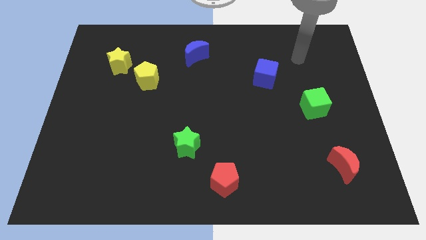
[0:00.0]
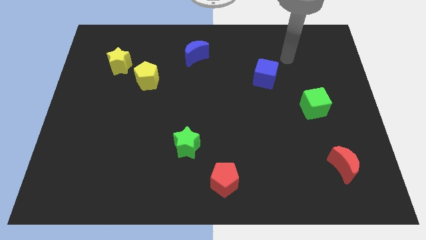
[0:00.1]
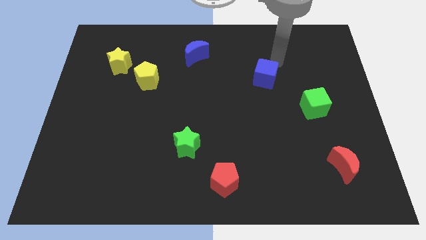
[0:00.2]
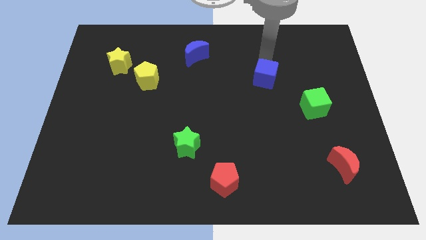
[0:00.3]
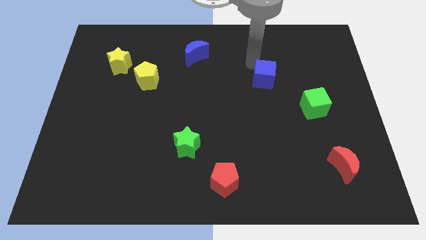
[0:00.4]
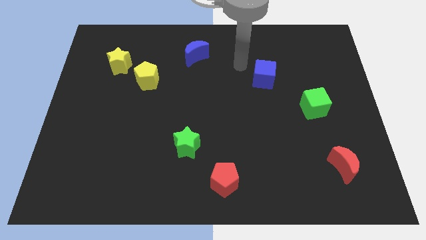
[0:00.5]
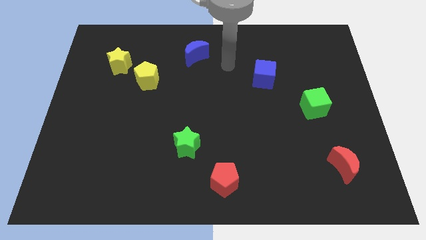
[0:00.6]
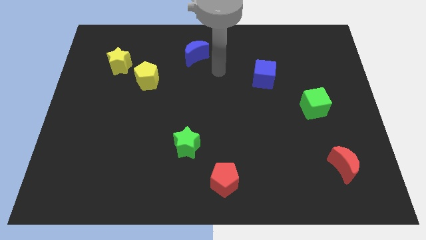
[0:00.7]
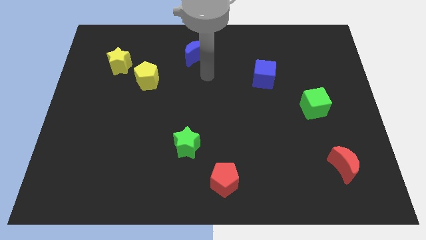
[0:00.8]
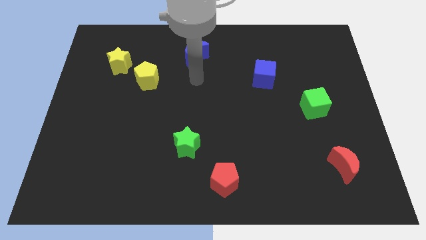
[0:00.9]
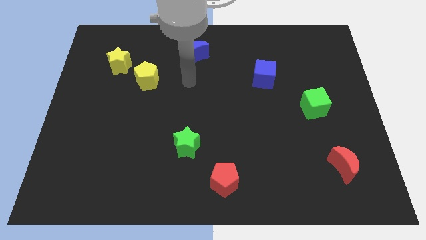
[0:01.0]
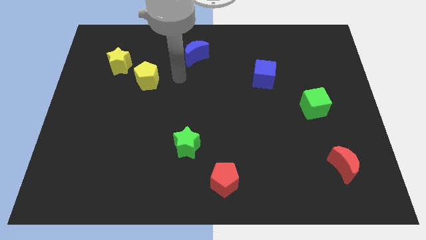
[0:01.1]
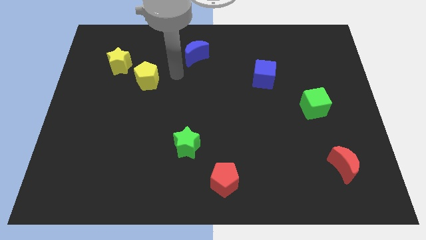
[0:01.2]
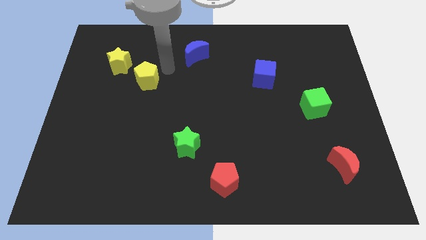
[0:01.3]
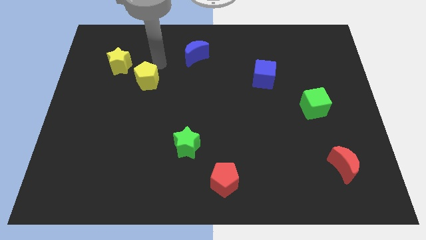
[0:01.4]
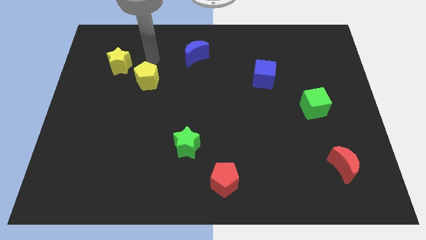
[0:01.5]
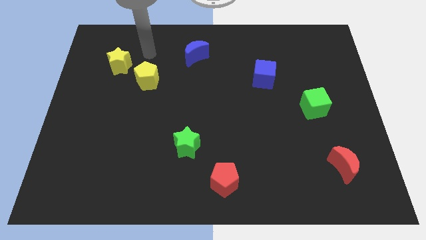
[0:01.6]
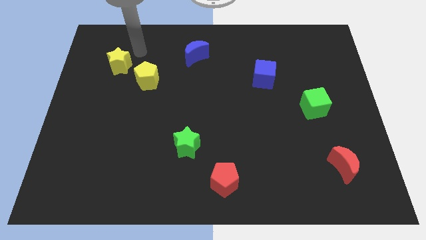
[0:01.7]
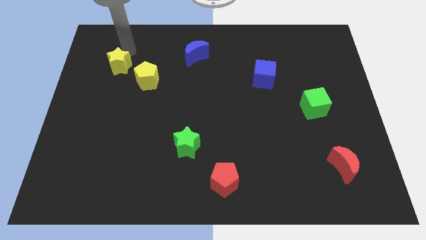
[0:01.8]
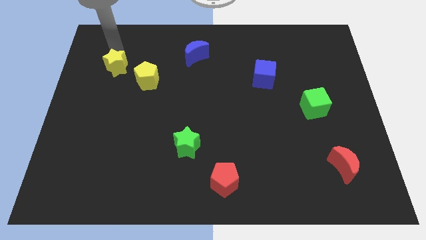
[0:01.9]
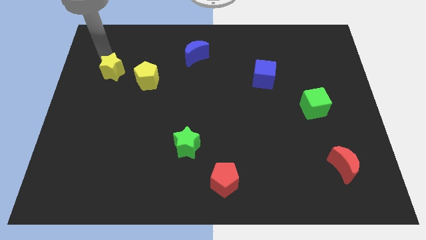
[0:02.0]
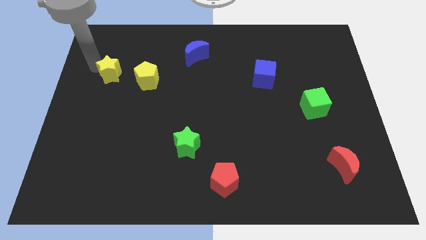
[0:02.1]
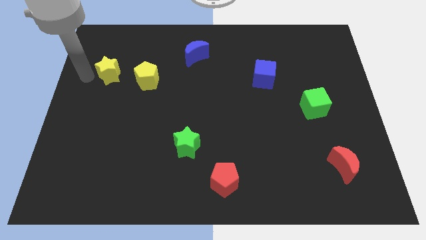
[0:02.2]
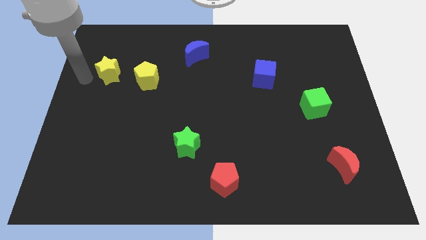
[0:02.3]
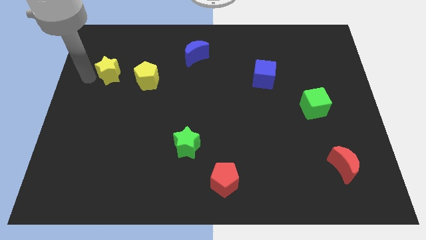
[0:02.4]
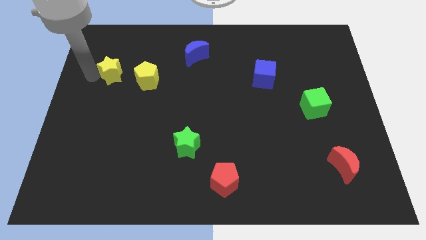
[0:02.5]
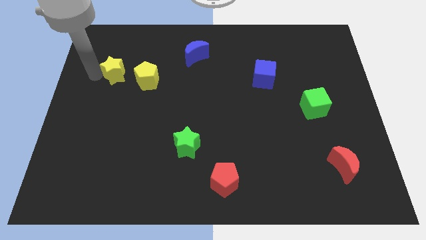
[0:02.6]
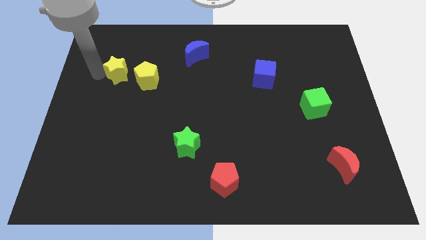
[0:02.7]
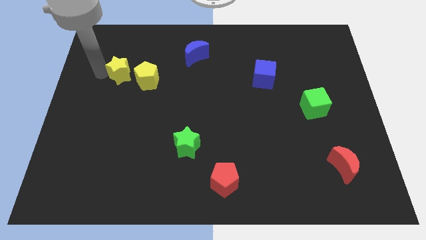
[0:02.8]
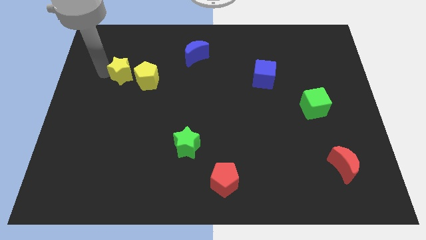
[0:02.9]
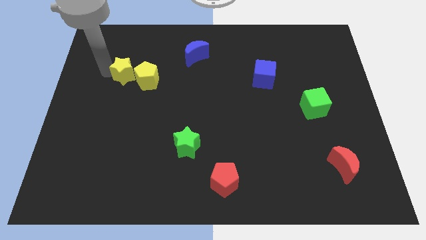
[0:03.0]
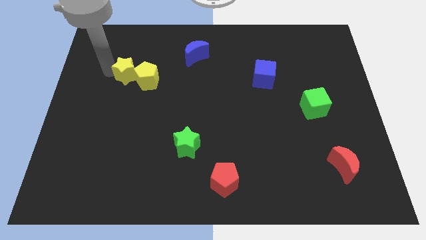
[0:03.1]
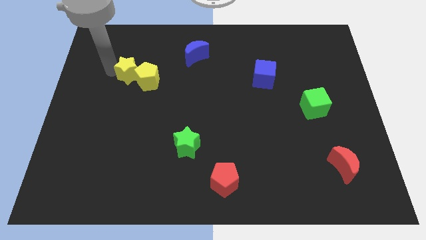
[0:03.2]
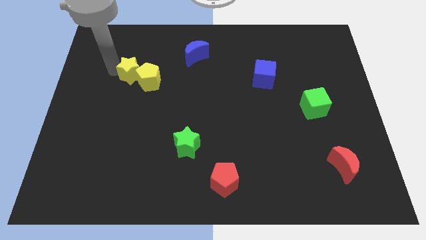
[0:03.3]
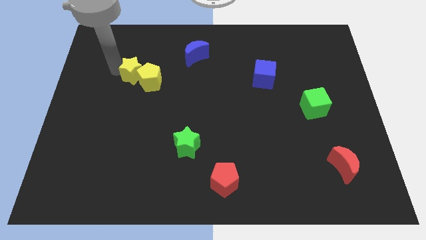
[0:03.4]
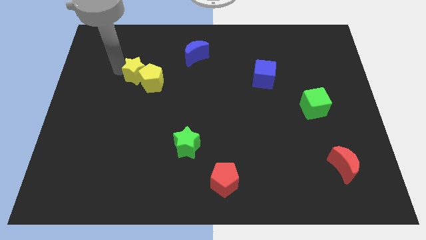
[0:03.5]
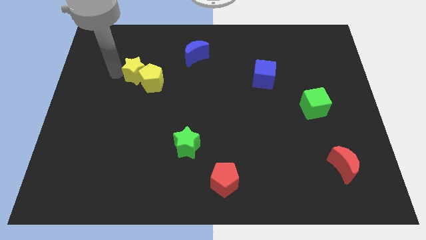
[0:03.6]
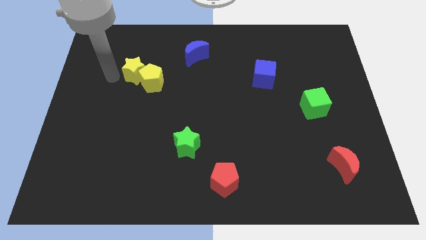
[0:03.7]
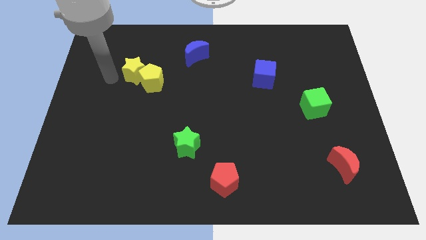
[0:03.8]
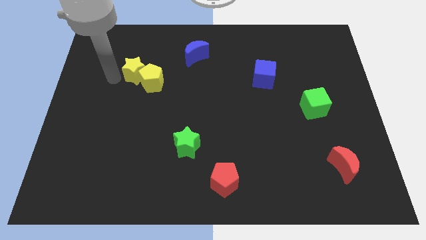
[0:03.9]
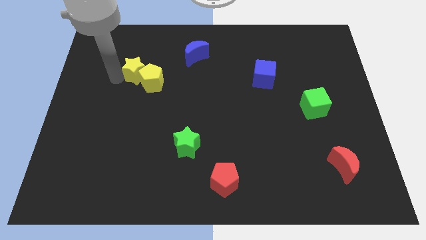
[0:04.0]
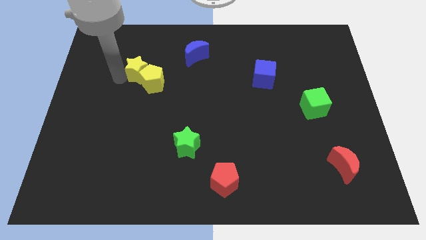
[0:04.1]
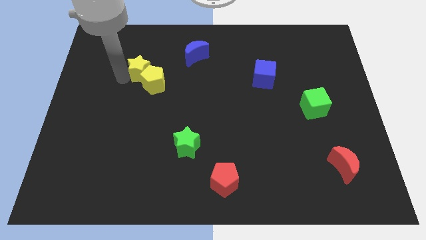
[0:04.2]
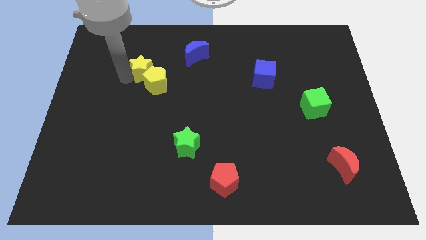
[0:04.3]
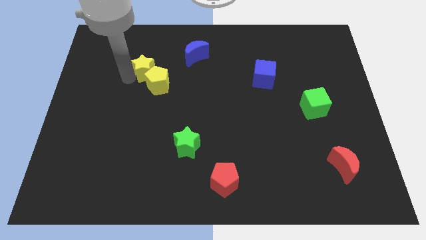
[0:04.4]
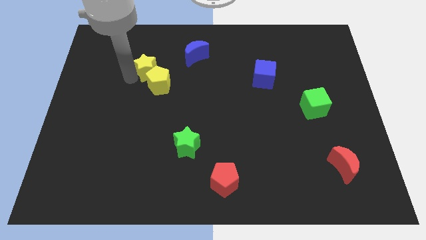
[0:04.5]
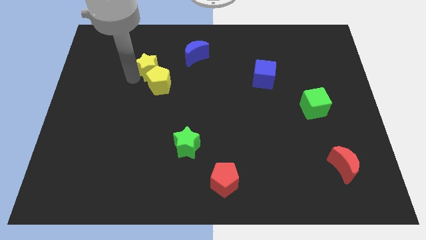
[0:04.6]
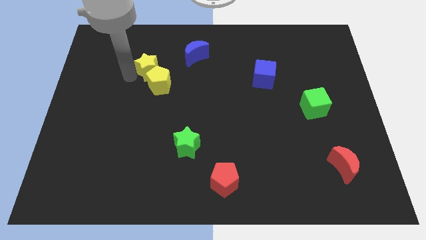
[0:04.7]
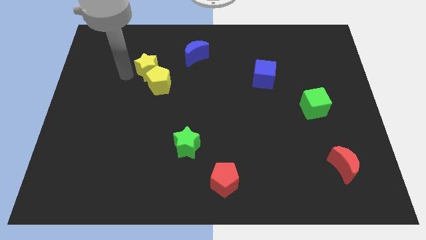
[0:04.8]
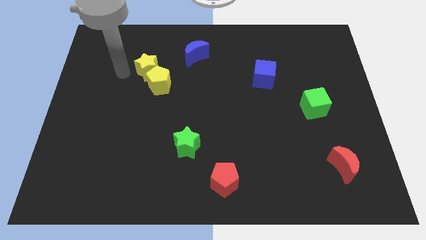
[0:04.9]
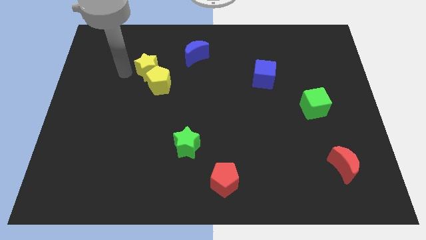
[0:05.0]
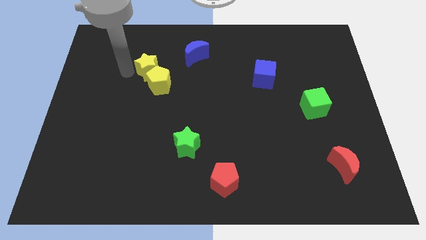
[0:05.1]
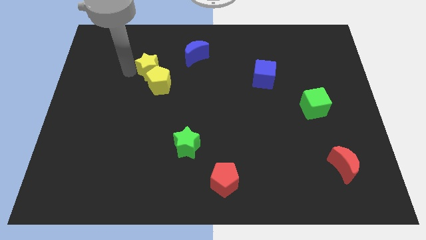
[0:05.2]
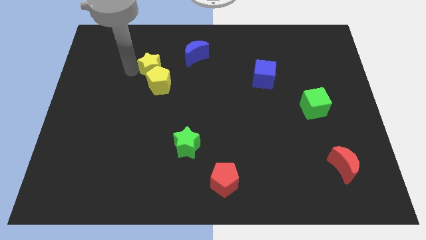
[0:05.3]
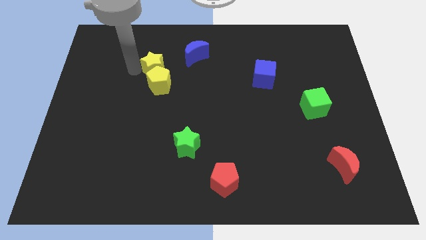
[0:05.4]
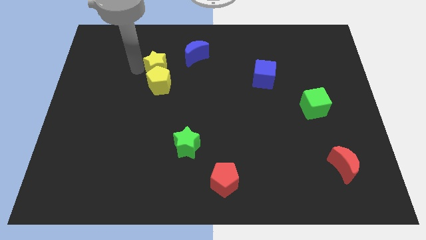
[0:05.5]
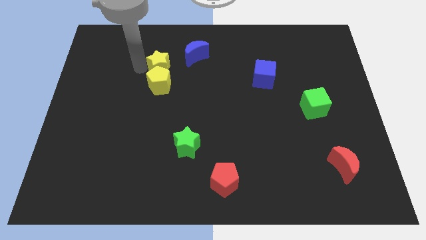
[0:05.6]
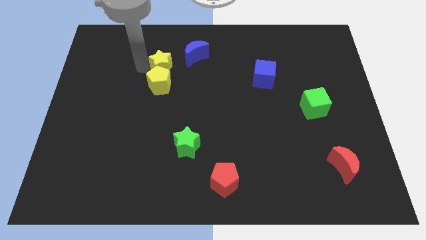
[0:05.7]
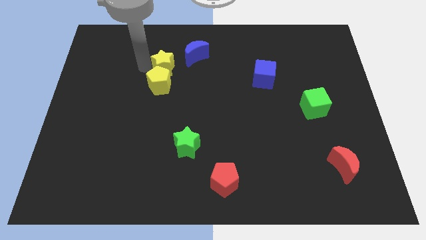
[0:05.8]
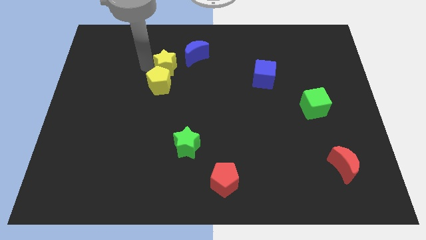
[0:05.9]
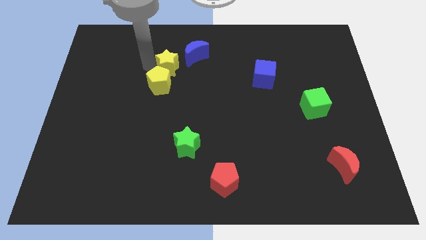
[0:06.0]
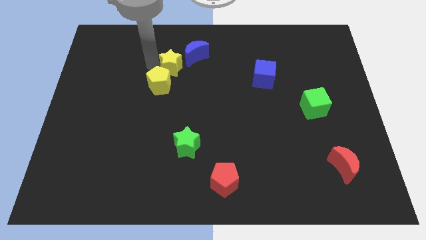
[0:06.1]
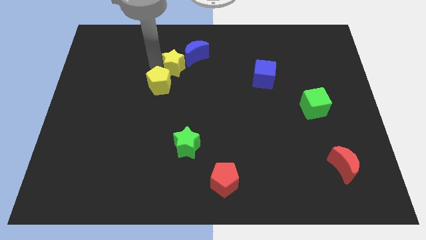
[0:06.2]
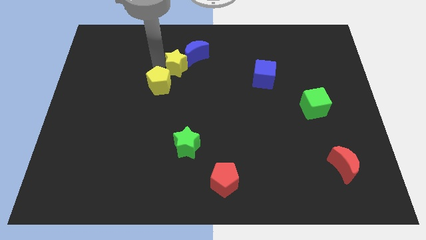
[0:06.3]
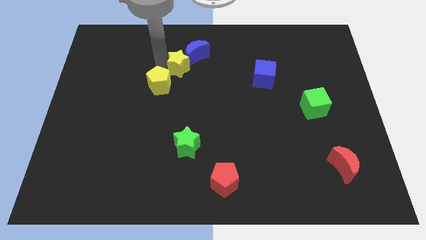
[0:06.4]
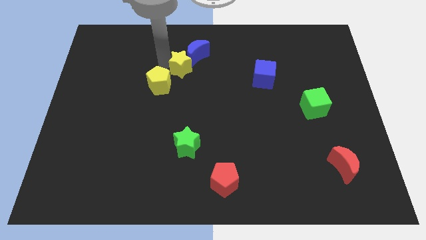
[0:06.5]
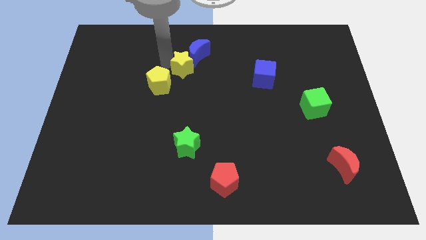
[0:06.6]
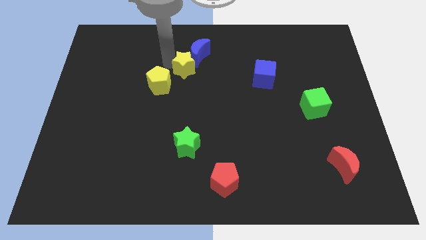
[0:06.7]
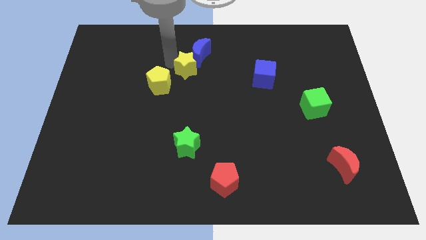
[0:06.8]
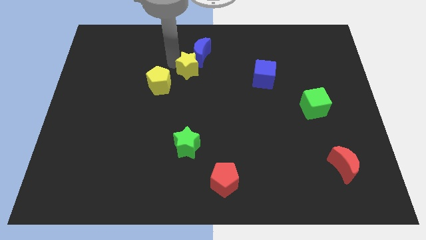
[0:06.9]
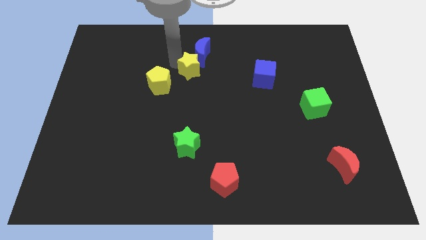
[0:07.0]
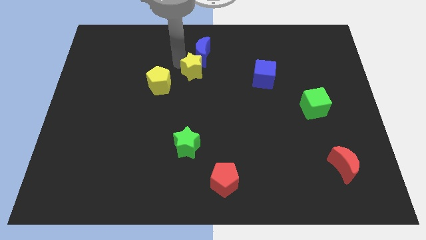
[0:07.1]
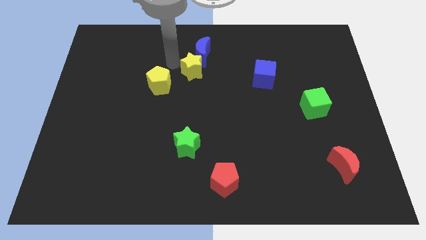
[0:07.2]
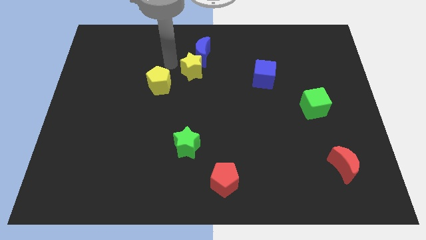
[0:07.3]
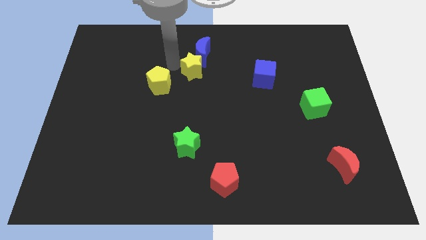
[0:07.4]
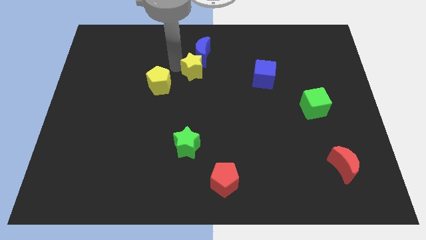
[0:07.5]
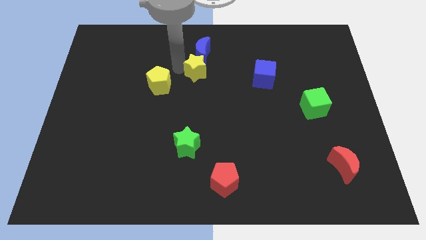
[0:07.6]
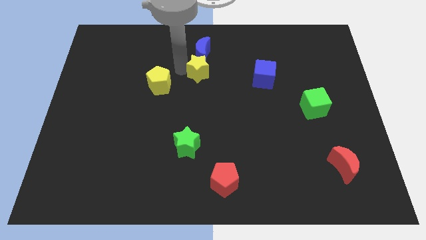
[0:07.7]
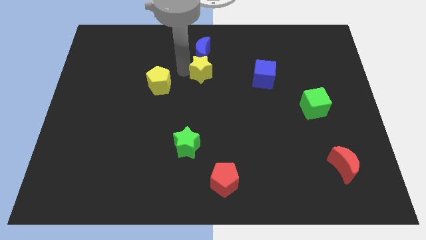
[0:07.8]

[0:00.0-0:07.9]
push the yellow star just left of the blue cube

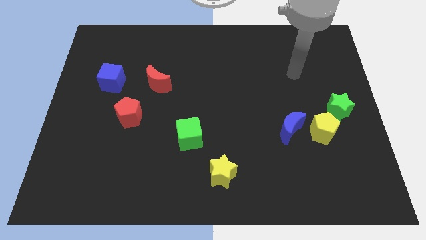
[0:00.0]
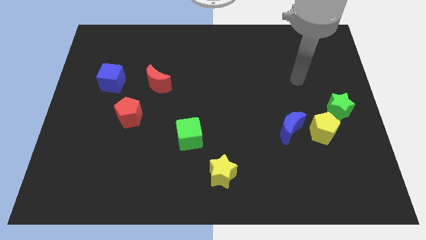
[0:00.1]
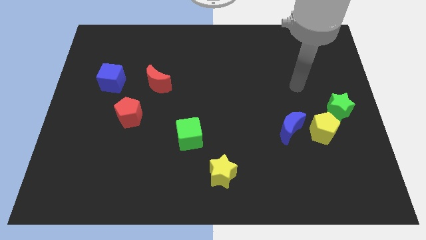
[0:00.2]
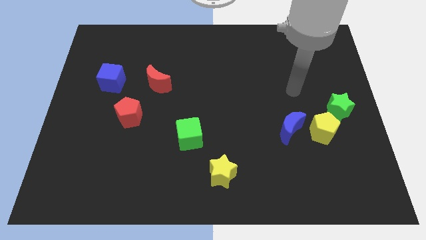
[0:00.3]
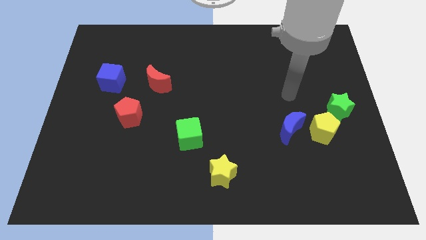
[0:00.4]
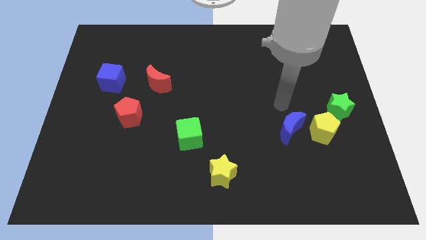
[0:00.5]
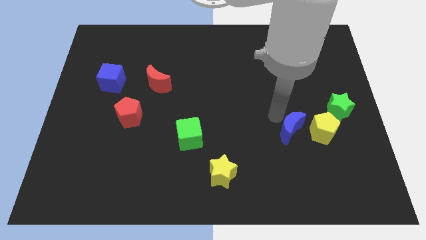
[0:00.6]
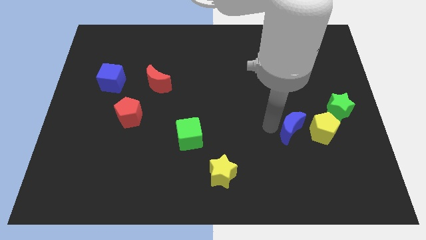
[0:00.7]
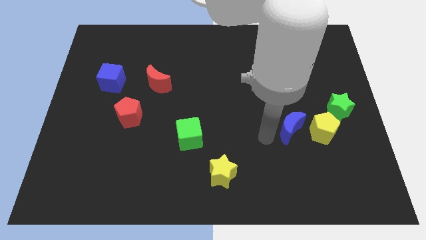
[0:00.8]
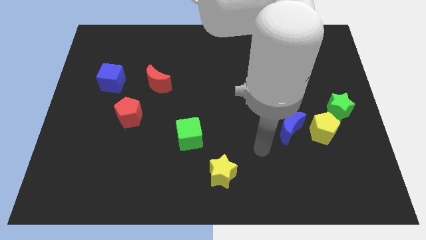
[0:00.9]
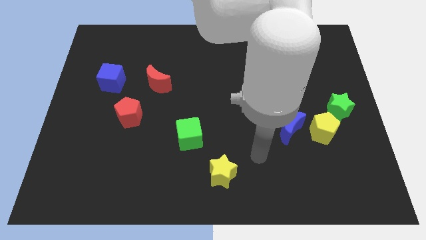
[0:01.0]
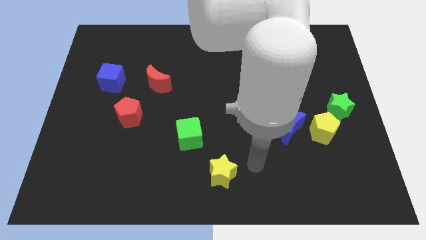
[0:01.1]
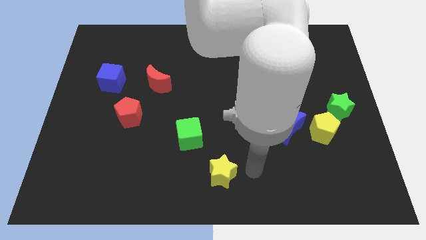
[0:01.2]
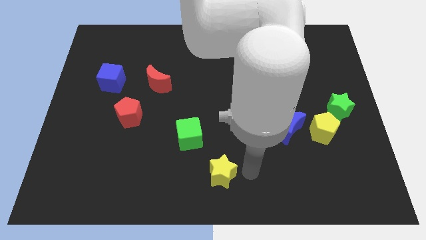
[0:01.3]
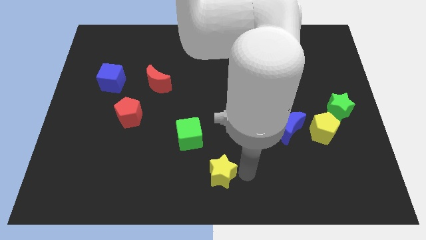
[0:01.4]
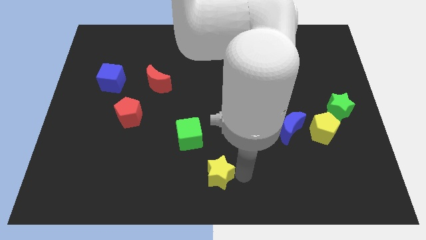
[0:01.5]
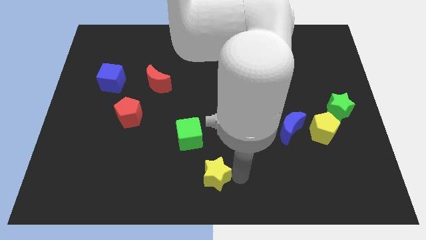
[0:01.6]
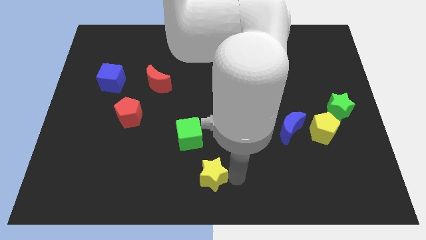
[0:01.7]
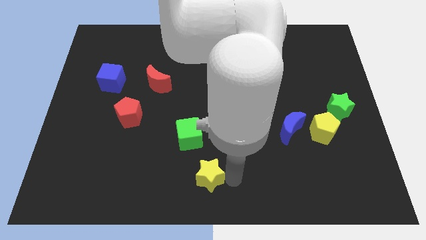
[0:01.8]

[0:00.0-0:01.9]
slide the yellow star to the bottom of the green cube
